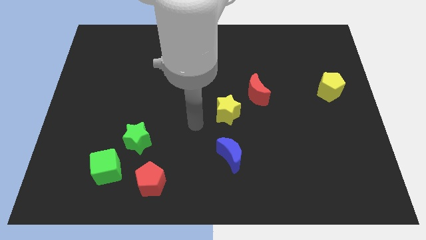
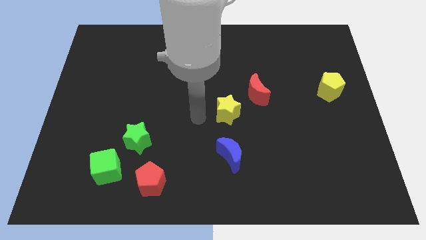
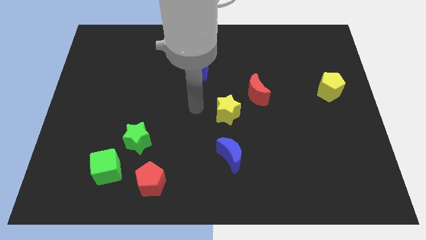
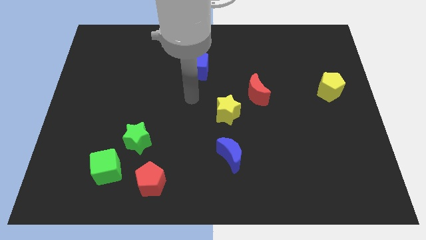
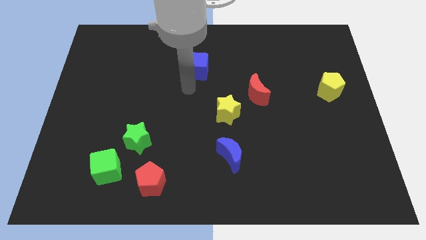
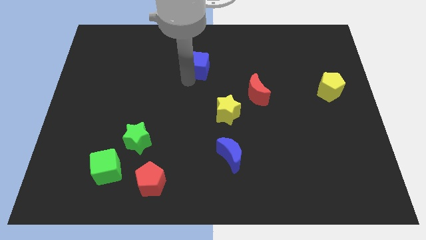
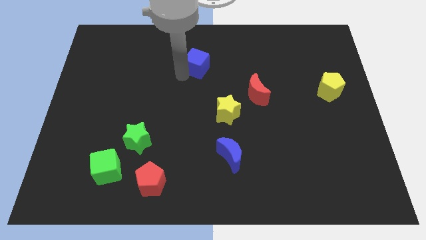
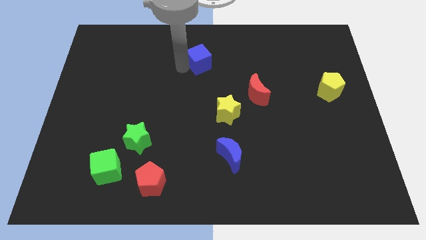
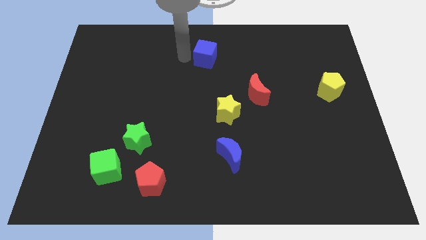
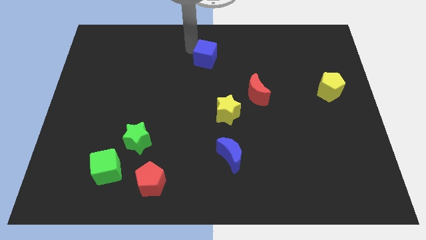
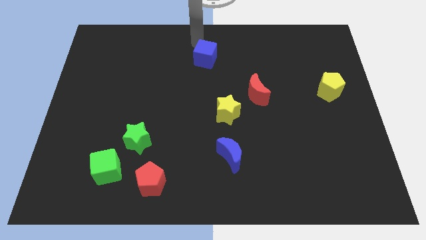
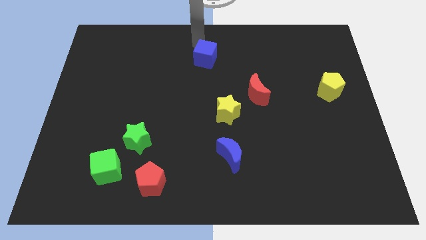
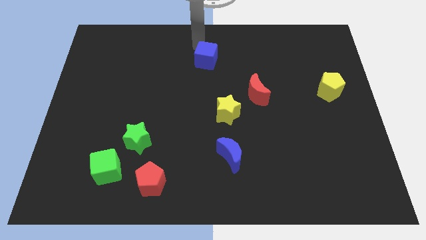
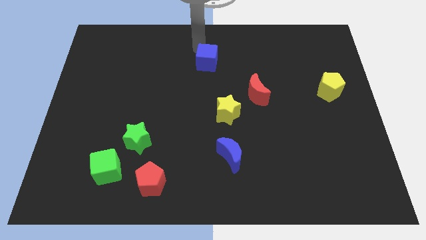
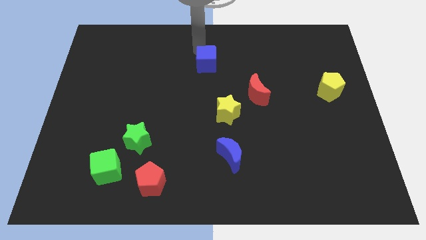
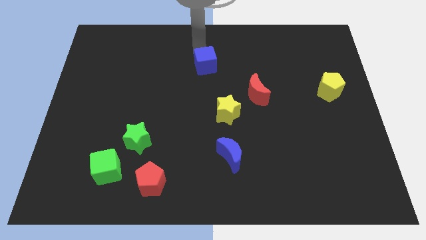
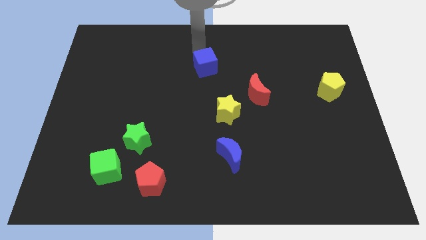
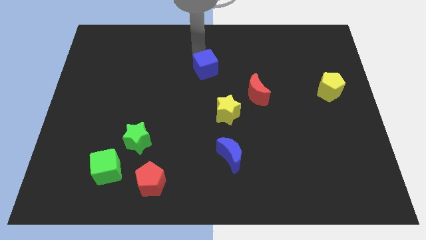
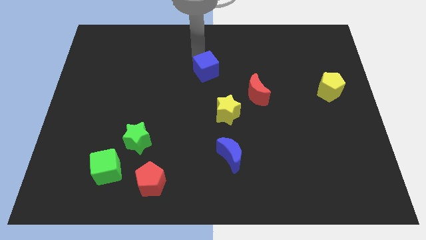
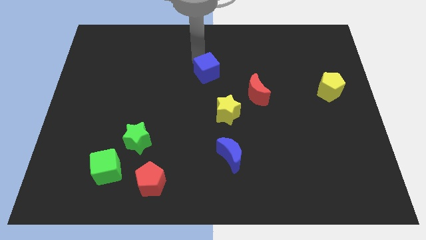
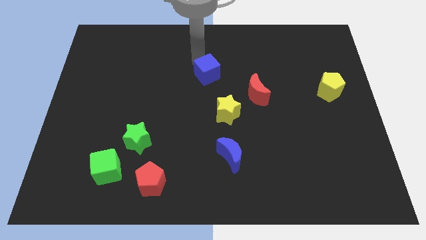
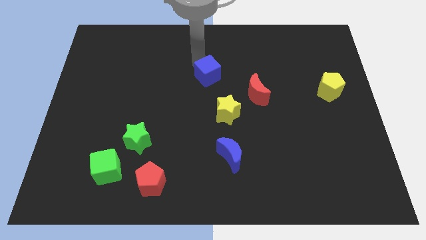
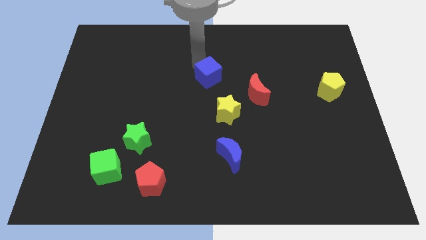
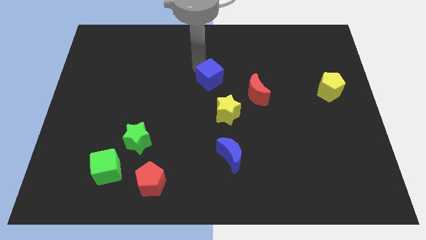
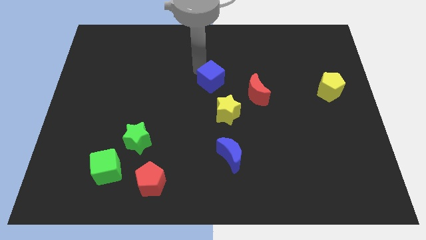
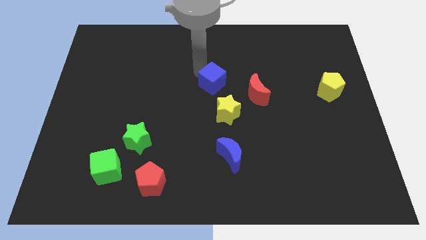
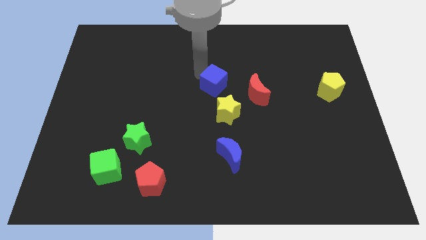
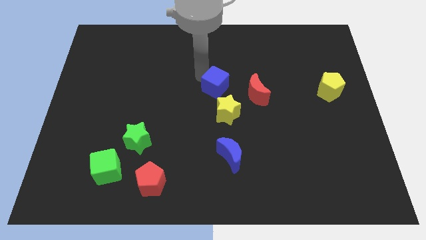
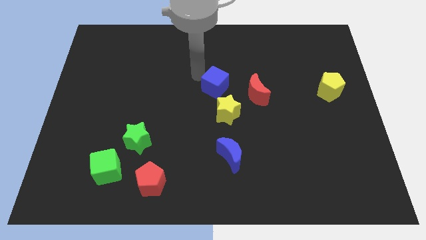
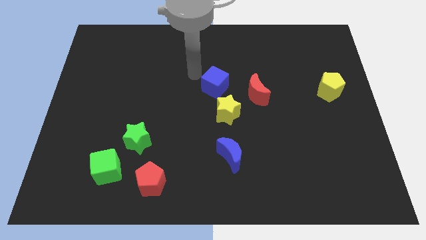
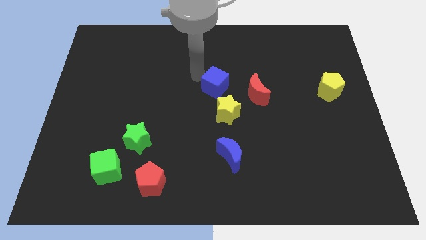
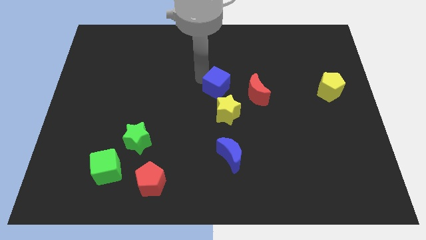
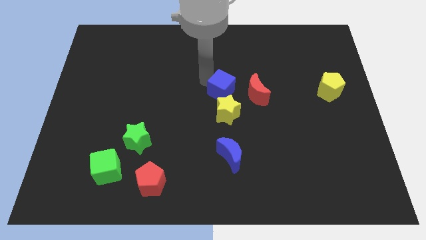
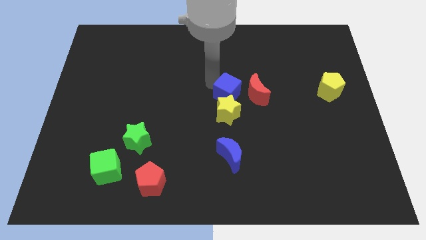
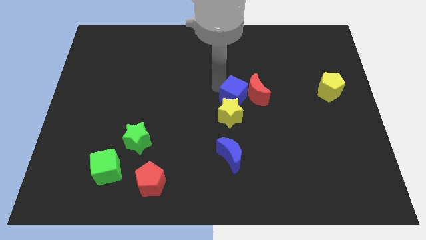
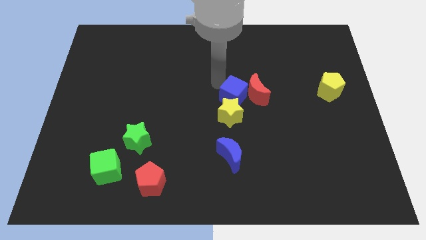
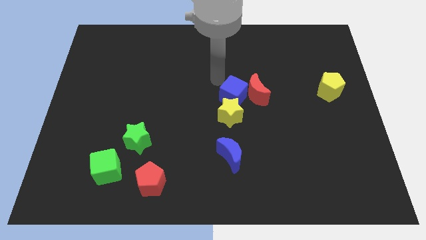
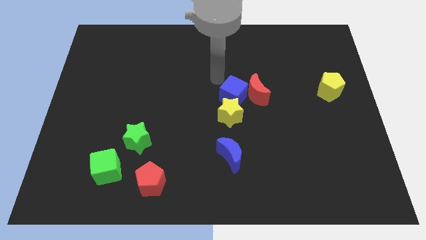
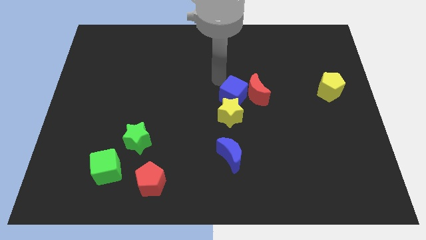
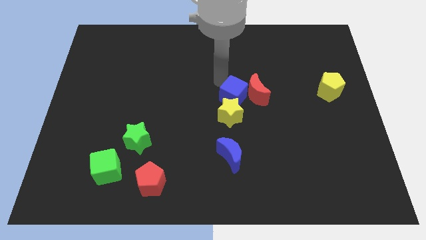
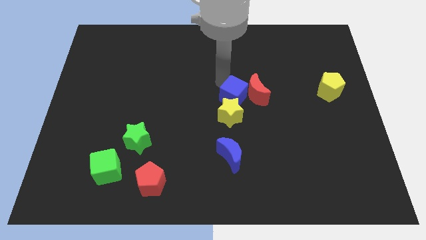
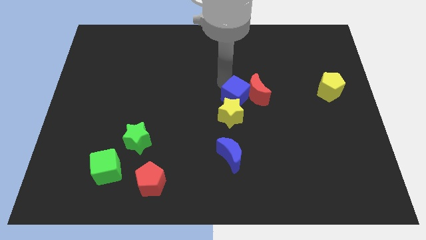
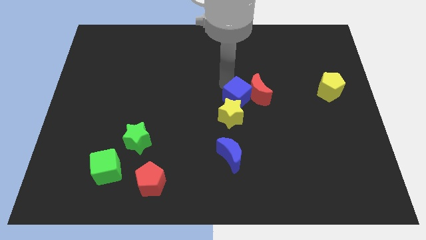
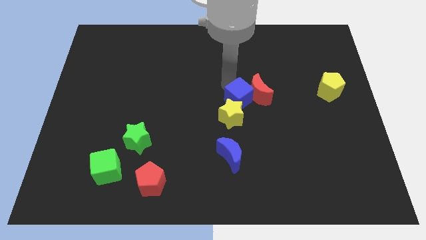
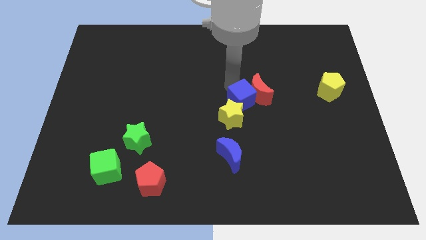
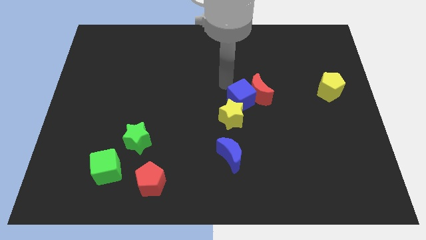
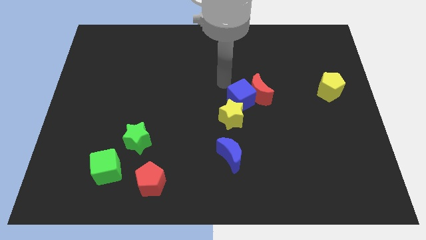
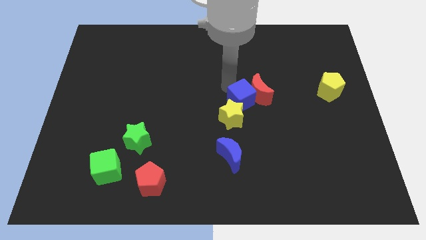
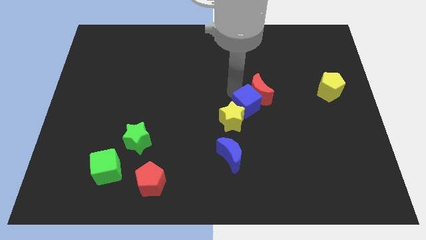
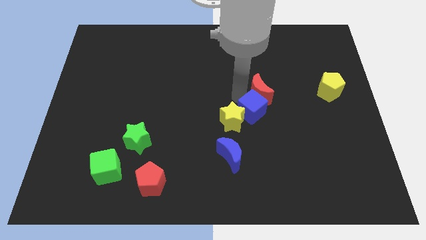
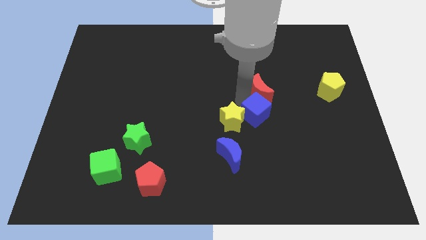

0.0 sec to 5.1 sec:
push the blue cube down and right diagonally

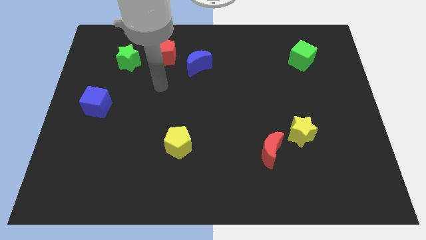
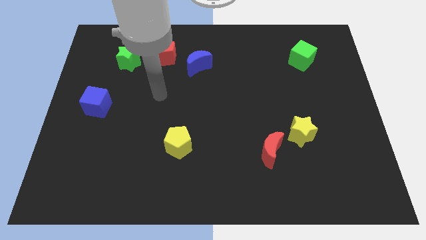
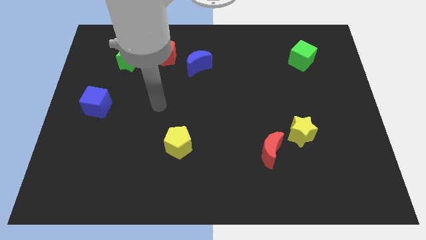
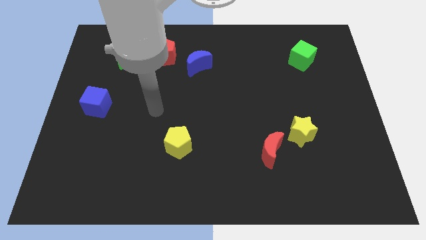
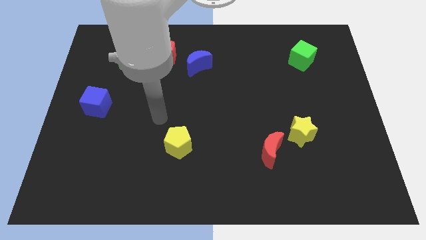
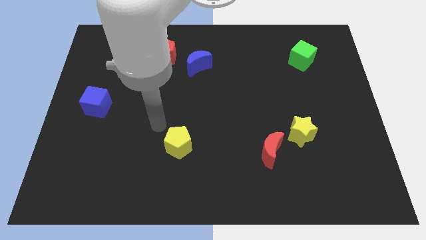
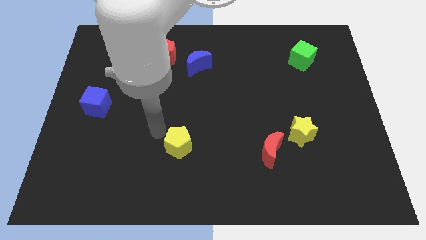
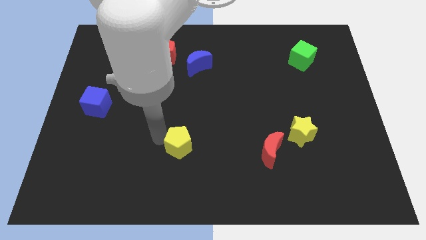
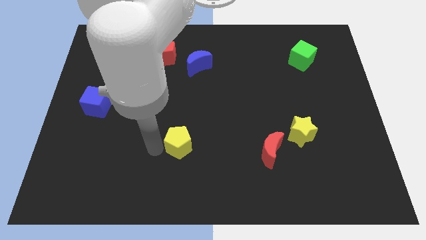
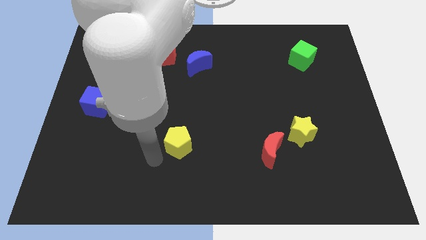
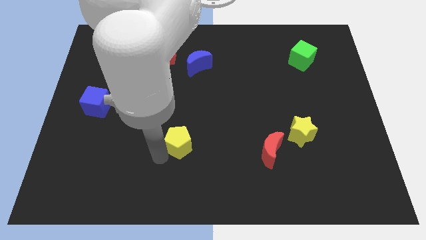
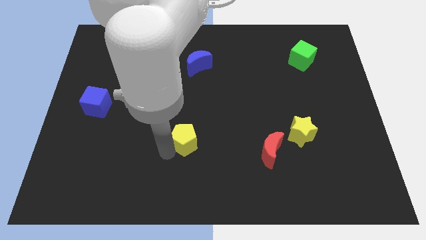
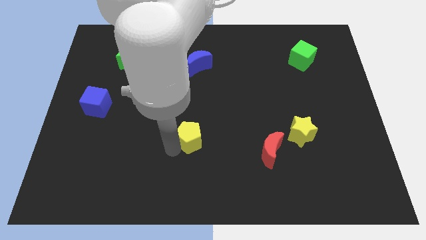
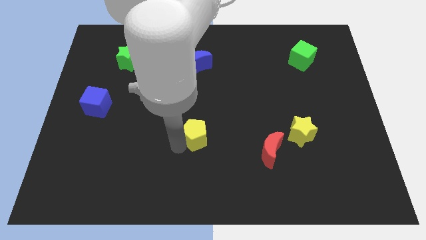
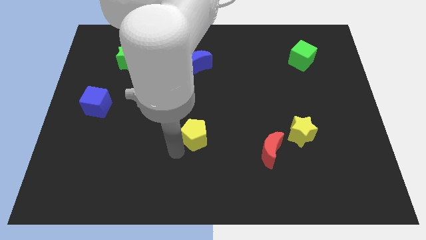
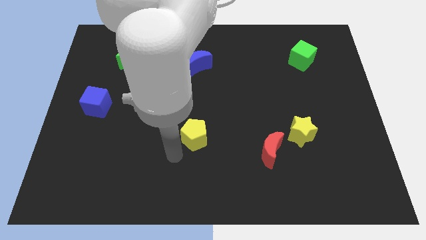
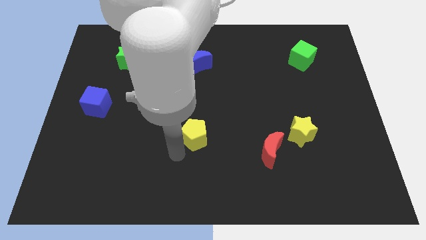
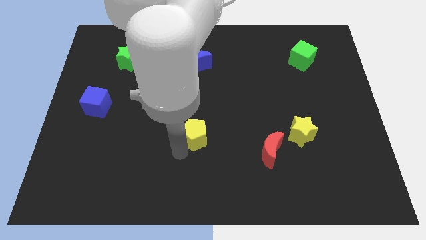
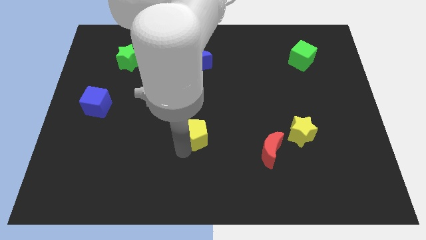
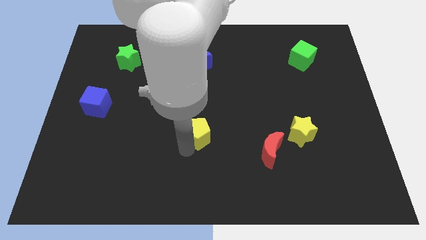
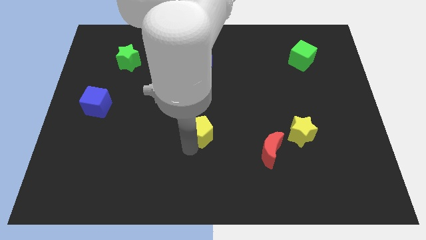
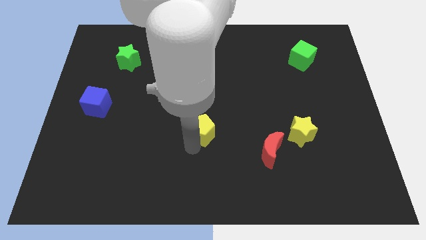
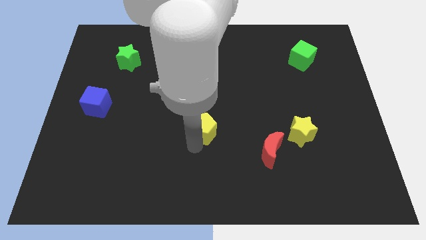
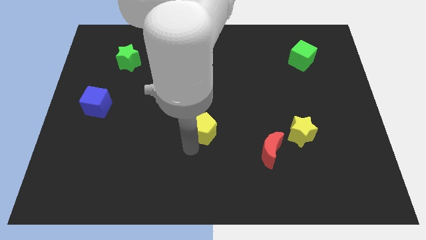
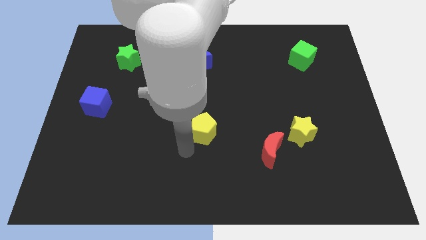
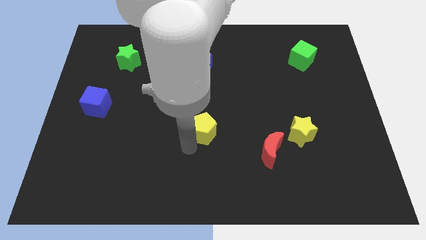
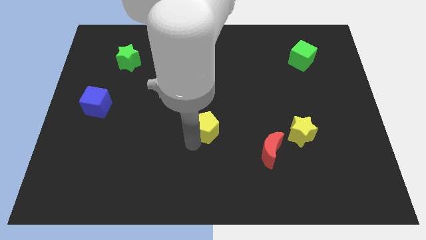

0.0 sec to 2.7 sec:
move the yellow pentagon slightly upwards and to the right diagonally

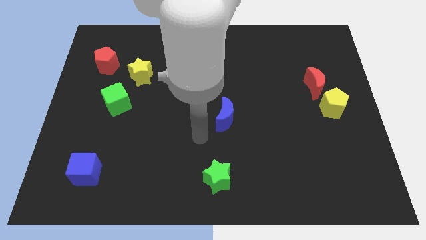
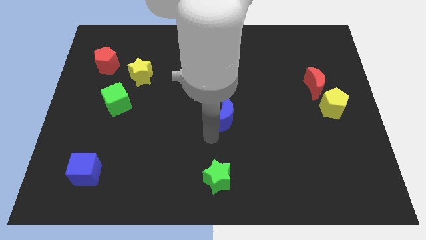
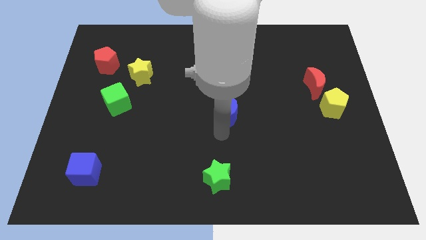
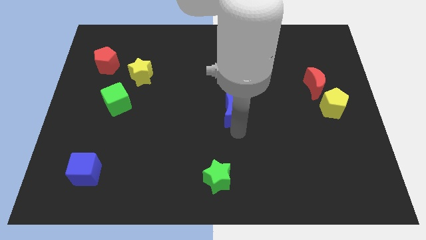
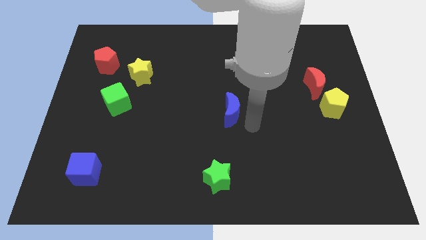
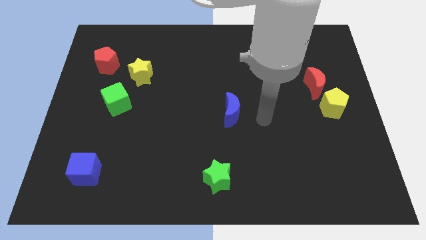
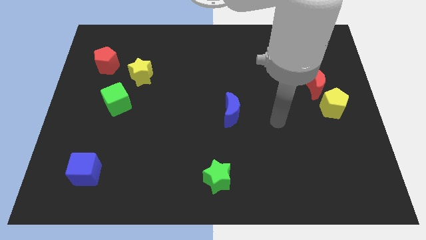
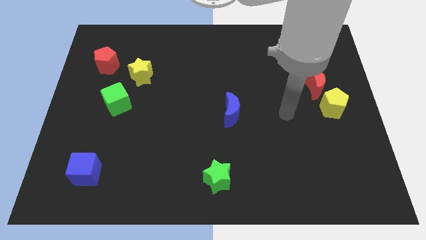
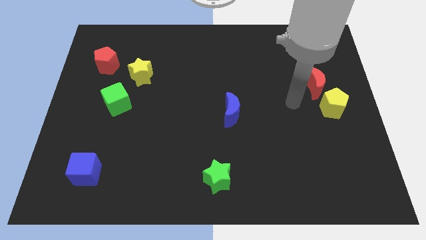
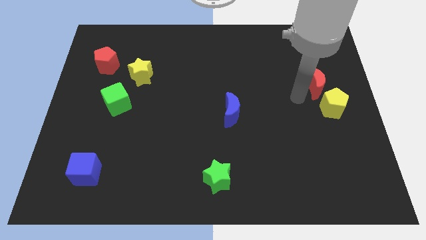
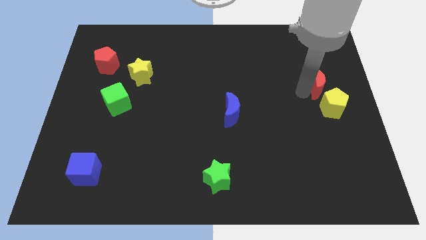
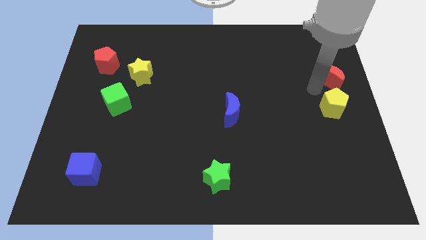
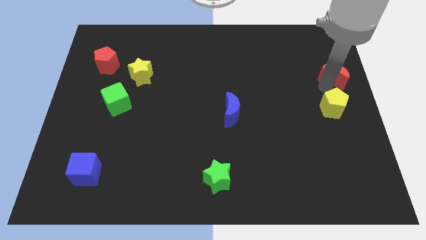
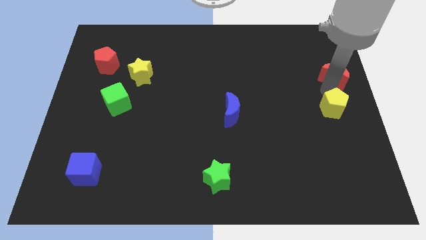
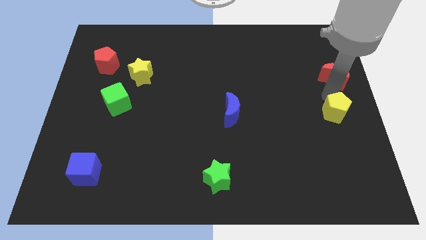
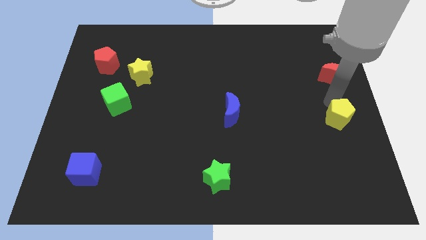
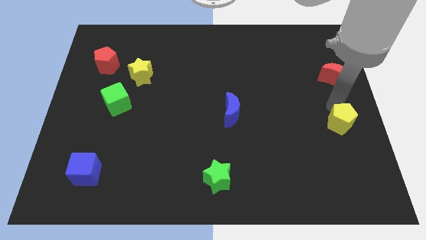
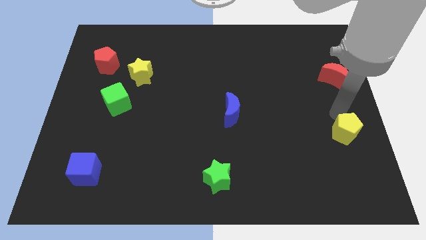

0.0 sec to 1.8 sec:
push the yellow pentagon downwards slightly
